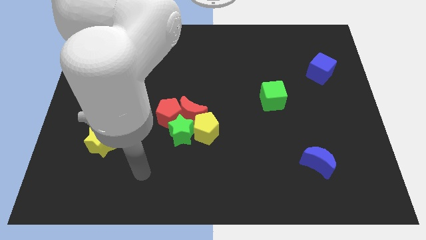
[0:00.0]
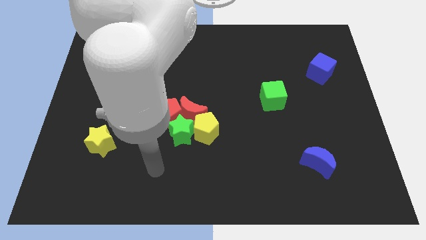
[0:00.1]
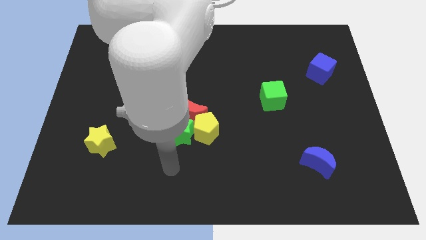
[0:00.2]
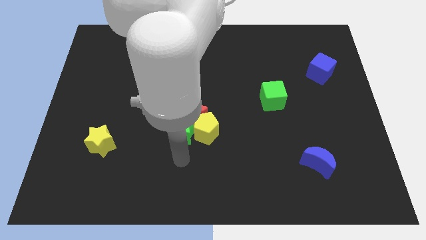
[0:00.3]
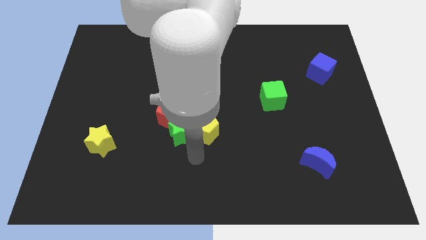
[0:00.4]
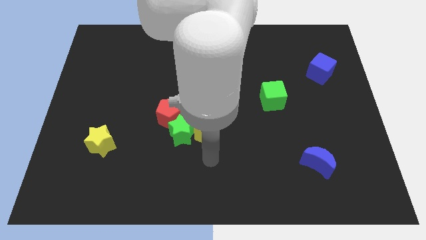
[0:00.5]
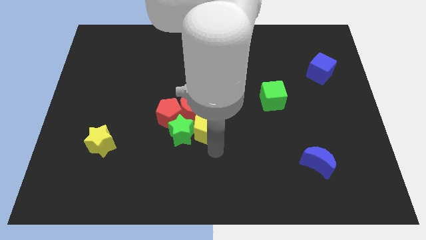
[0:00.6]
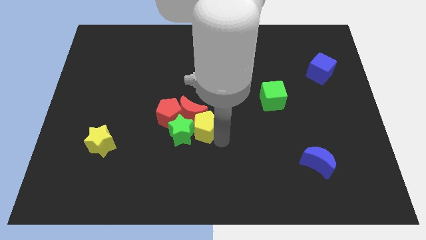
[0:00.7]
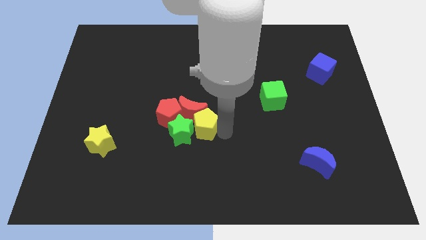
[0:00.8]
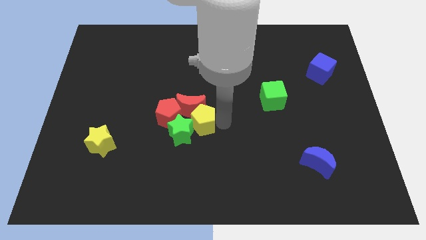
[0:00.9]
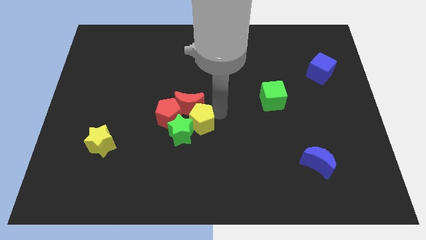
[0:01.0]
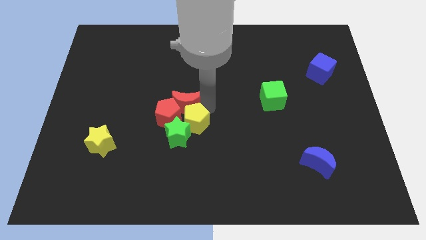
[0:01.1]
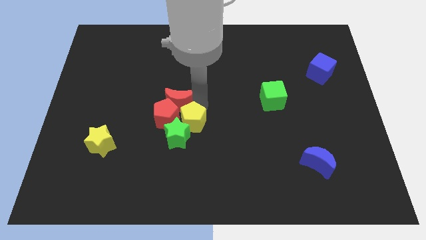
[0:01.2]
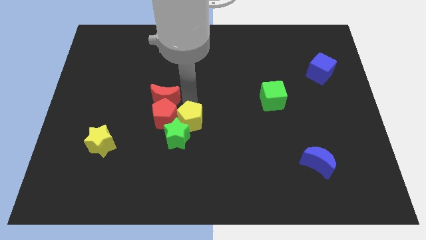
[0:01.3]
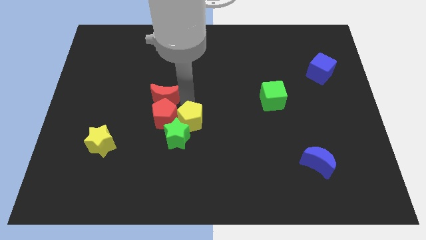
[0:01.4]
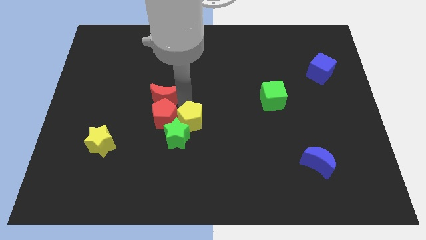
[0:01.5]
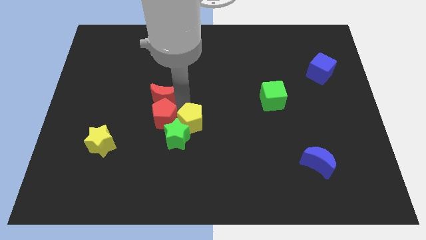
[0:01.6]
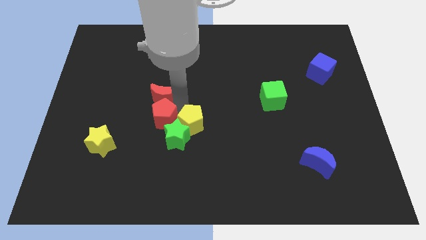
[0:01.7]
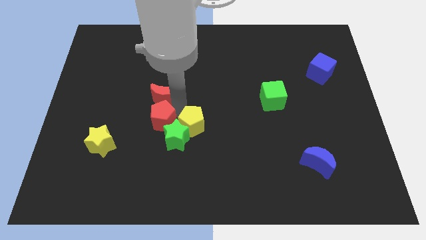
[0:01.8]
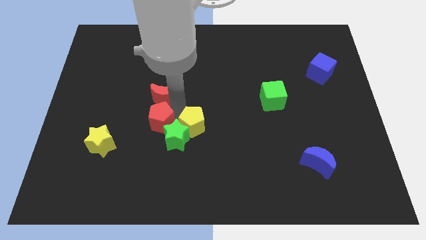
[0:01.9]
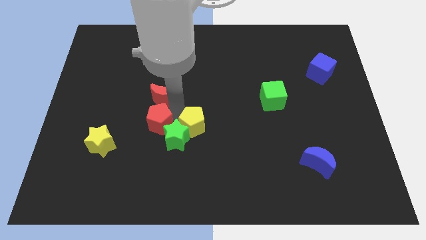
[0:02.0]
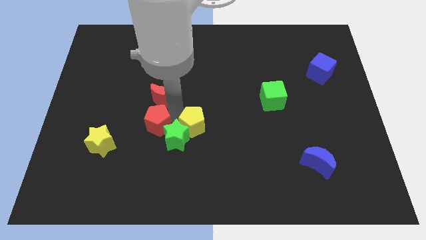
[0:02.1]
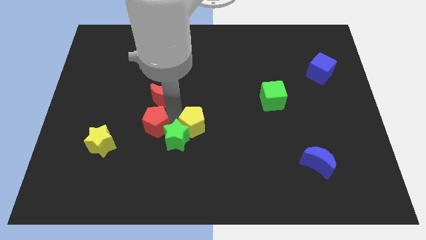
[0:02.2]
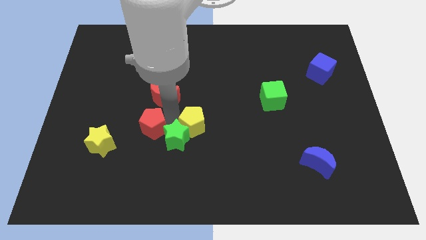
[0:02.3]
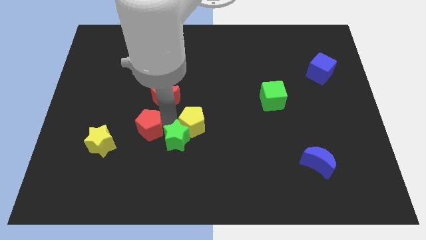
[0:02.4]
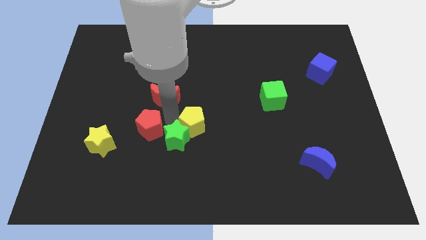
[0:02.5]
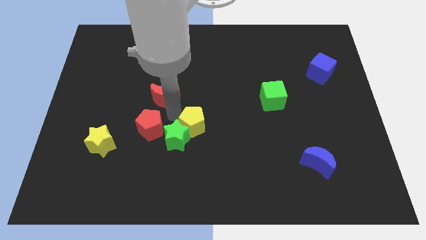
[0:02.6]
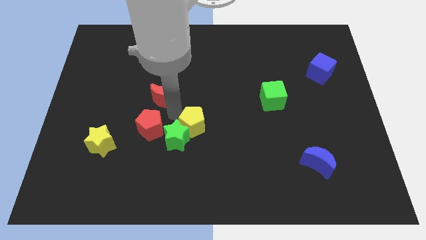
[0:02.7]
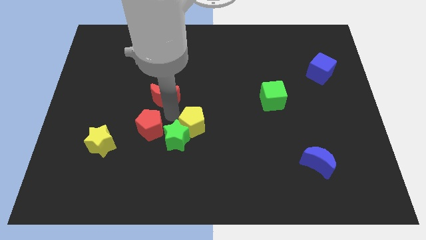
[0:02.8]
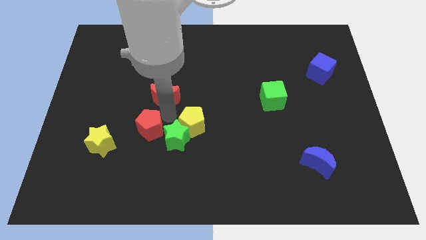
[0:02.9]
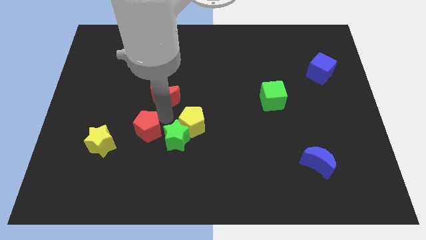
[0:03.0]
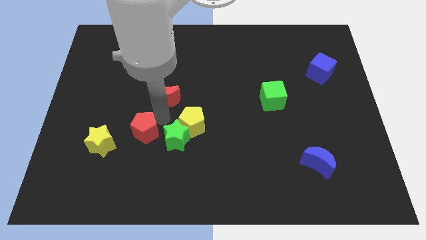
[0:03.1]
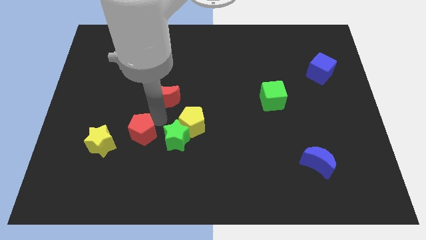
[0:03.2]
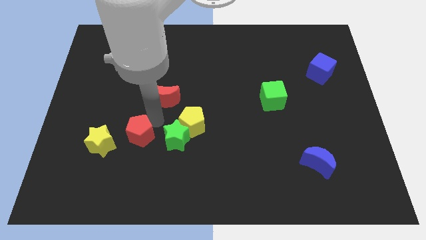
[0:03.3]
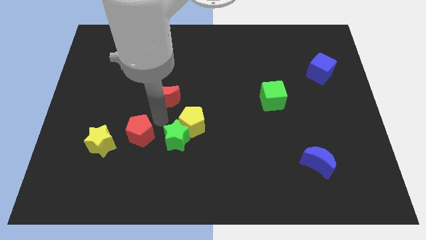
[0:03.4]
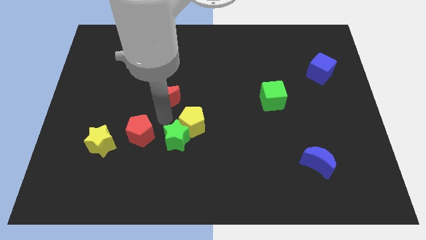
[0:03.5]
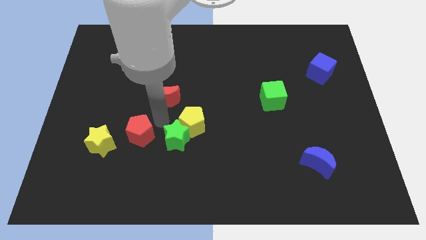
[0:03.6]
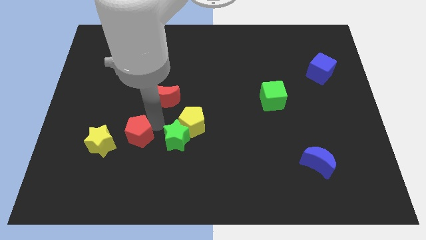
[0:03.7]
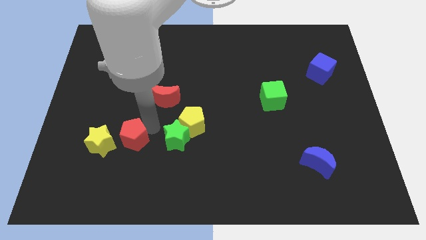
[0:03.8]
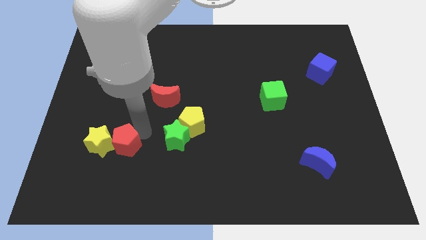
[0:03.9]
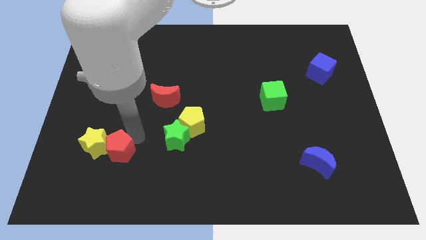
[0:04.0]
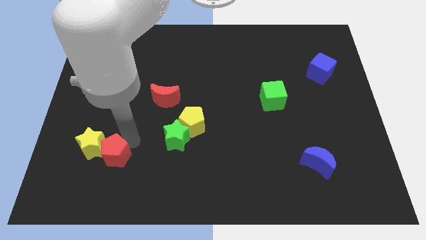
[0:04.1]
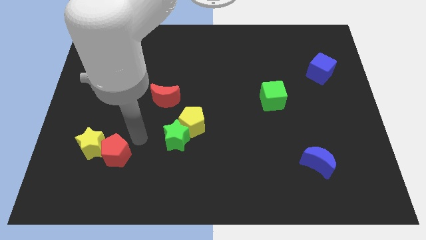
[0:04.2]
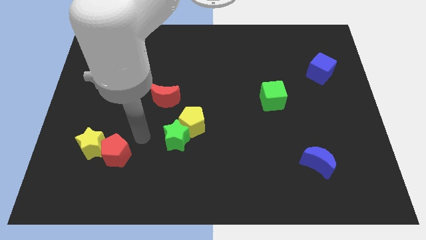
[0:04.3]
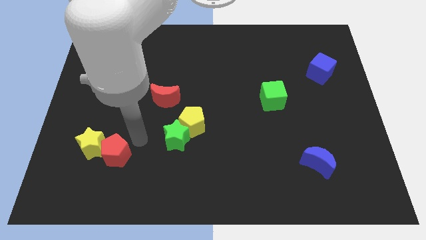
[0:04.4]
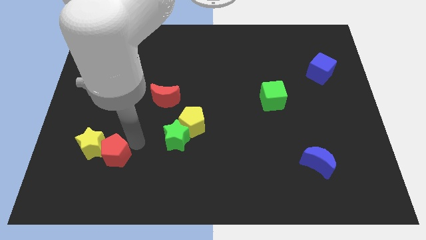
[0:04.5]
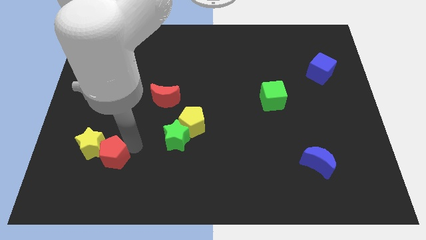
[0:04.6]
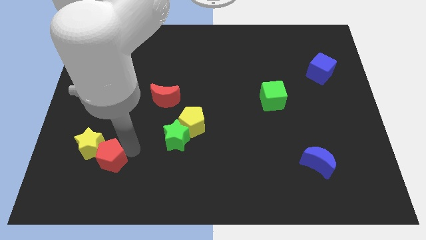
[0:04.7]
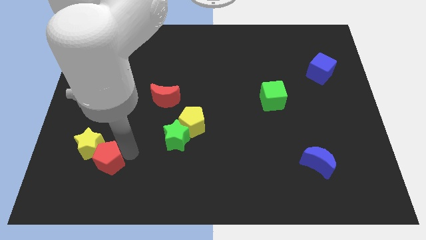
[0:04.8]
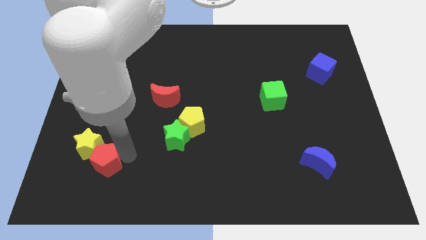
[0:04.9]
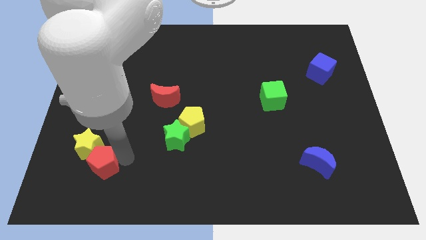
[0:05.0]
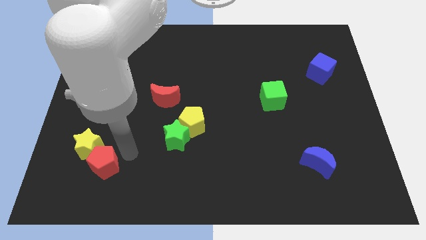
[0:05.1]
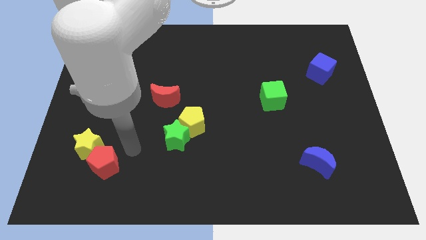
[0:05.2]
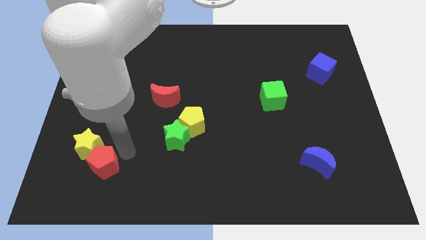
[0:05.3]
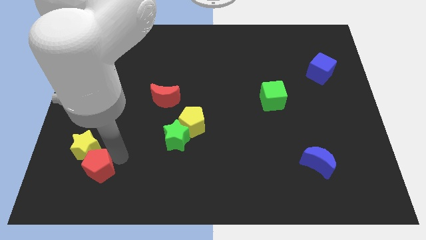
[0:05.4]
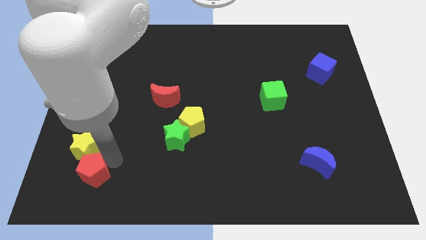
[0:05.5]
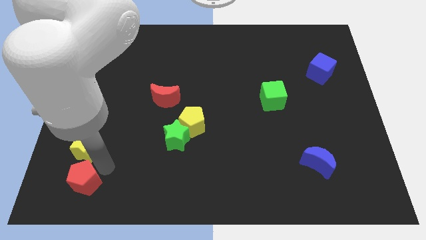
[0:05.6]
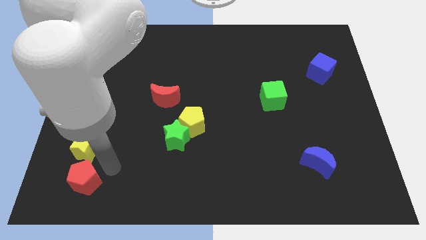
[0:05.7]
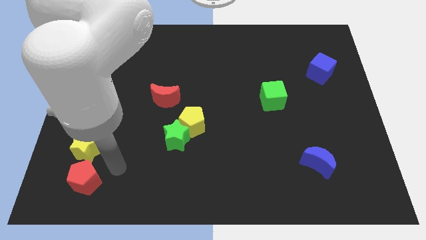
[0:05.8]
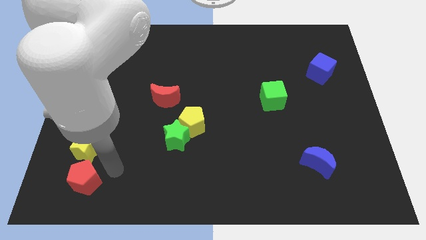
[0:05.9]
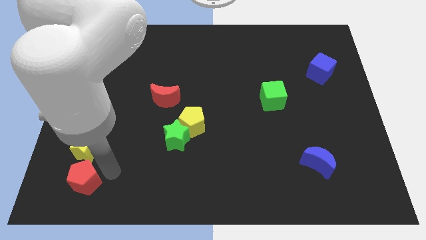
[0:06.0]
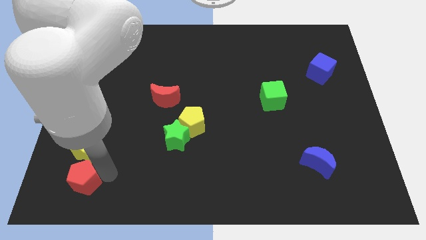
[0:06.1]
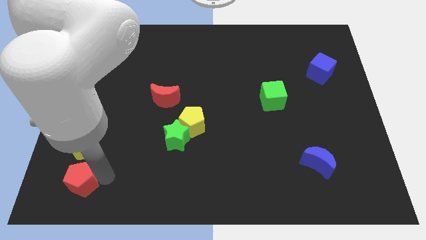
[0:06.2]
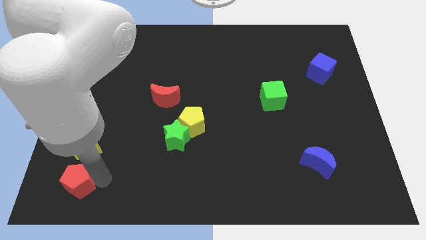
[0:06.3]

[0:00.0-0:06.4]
slide the red pentagon to the bottom left corner
